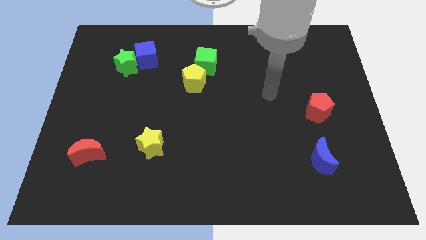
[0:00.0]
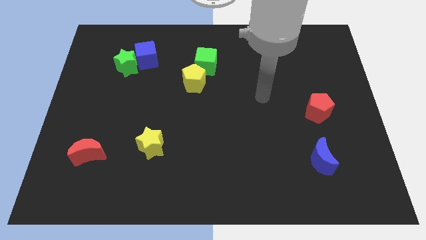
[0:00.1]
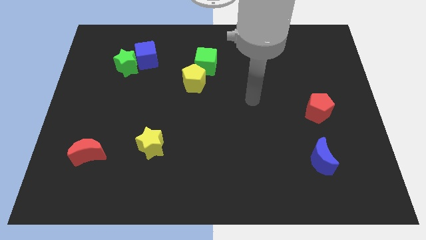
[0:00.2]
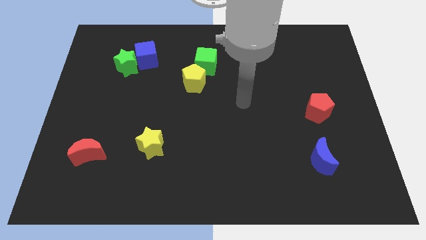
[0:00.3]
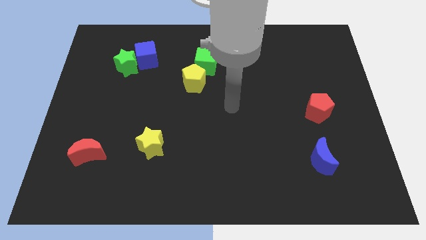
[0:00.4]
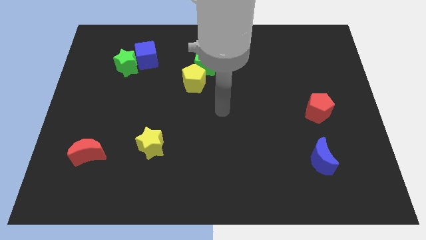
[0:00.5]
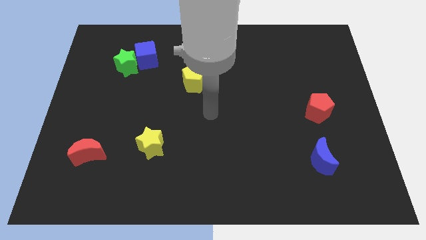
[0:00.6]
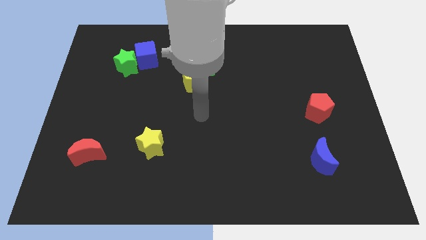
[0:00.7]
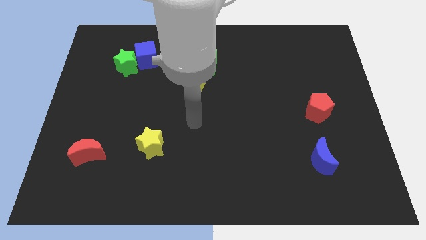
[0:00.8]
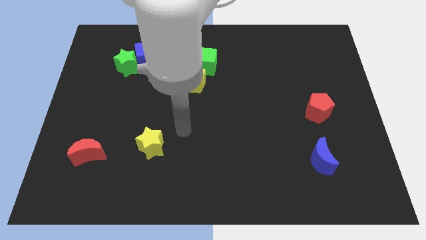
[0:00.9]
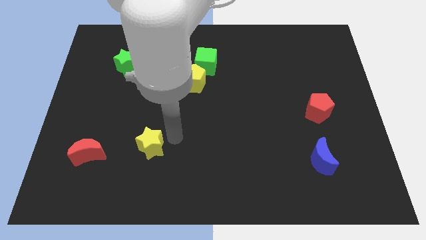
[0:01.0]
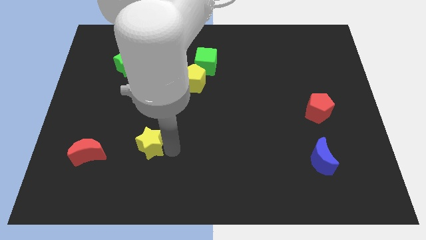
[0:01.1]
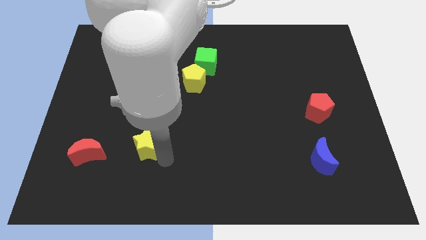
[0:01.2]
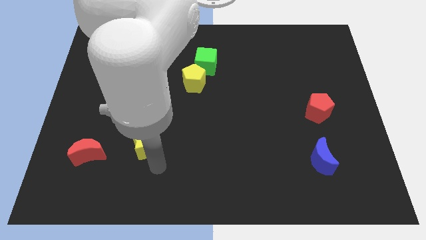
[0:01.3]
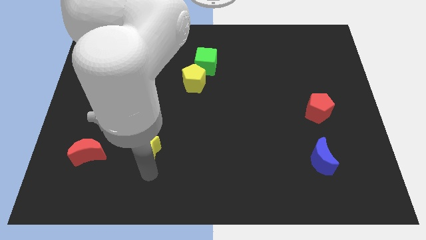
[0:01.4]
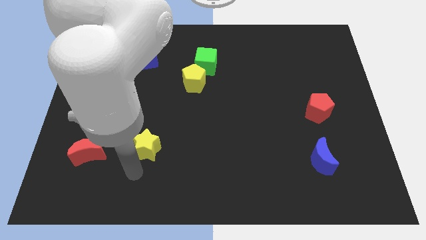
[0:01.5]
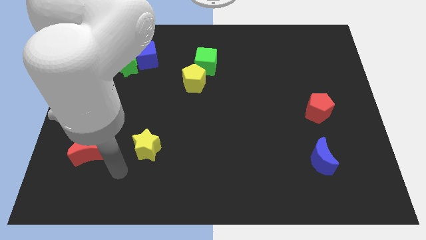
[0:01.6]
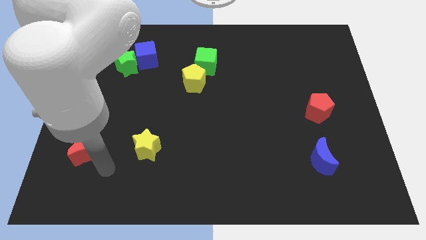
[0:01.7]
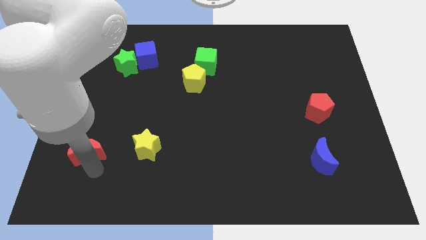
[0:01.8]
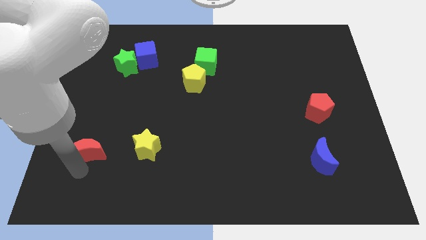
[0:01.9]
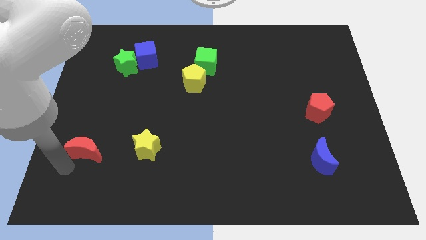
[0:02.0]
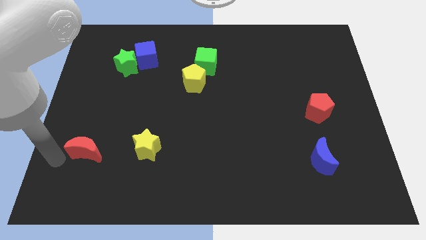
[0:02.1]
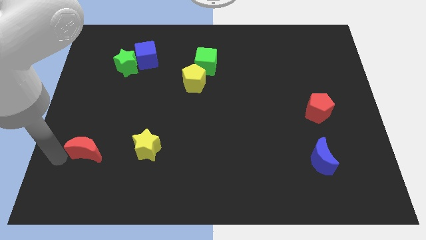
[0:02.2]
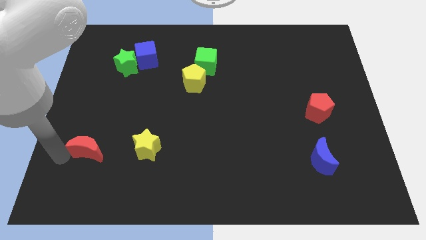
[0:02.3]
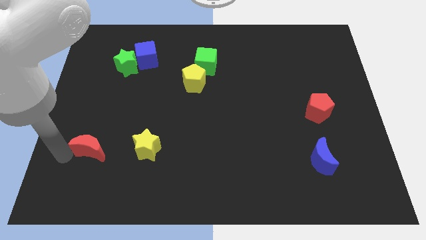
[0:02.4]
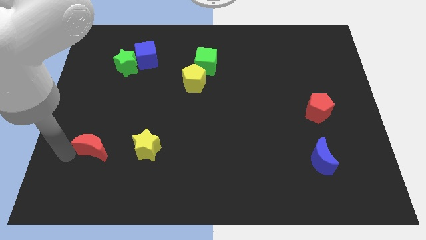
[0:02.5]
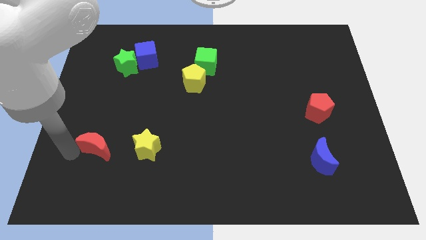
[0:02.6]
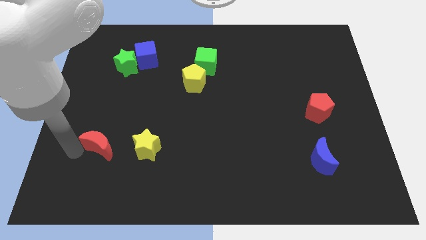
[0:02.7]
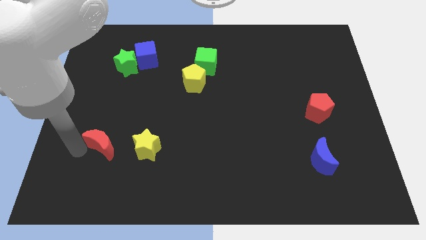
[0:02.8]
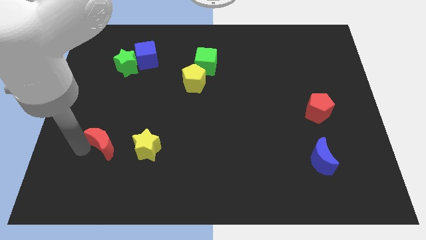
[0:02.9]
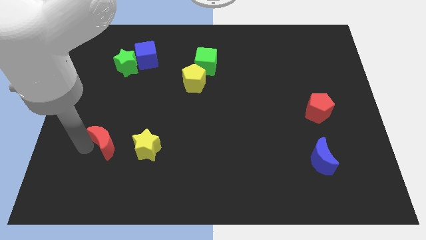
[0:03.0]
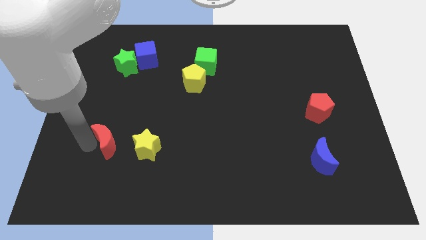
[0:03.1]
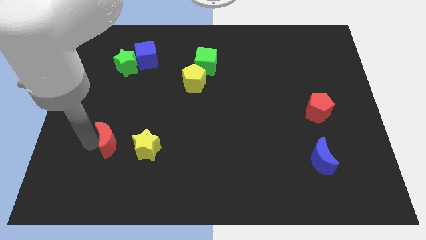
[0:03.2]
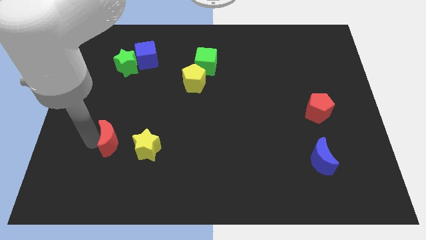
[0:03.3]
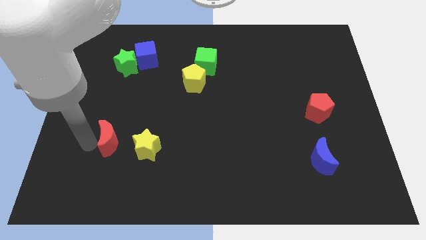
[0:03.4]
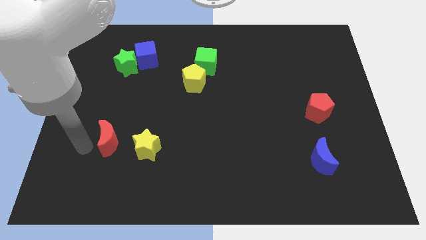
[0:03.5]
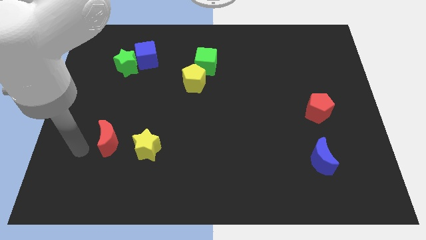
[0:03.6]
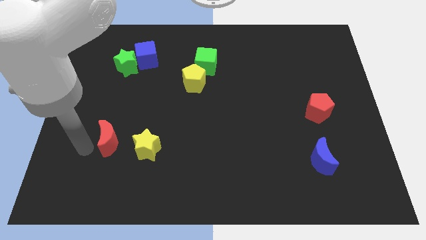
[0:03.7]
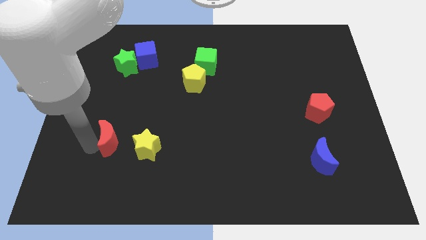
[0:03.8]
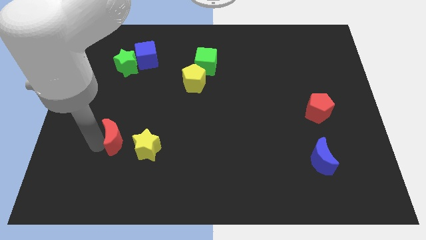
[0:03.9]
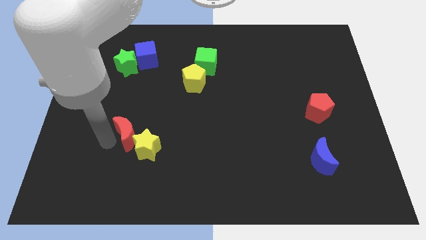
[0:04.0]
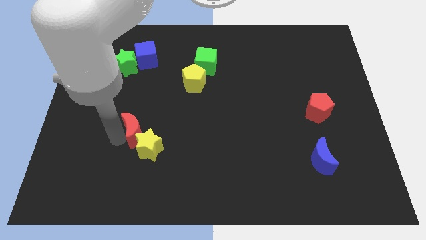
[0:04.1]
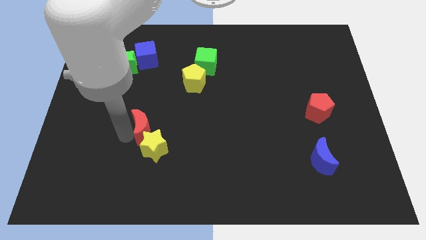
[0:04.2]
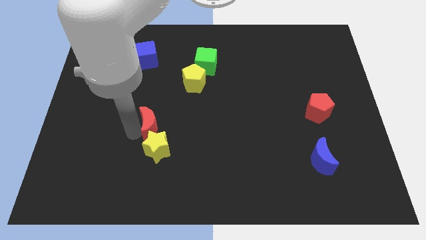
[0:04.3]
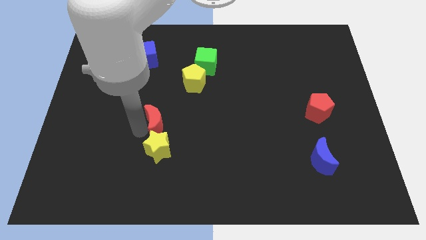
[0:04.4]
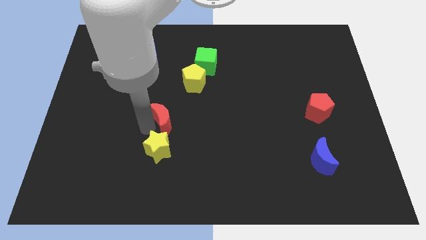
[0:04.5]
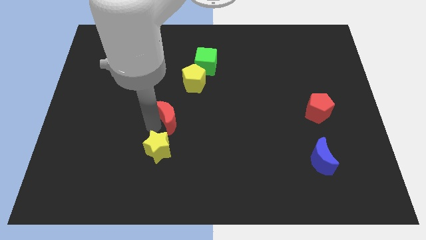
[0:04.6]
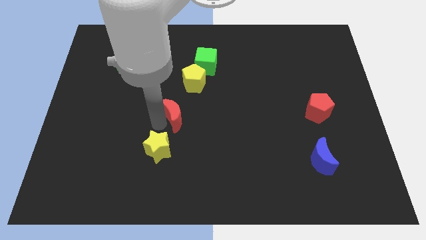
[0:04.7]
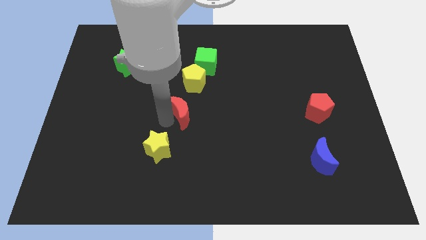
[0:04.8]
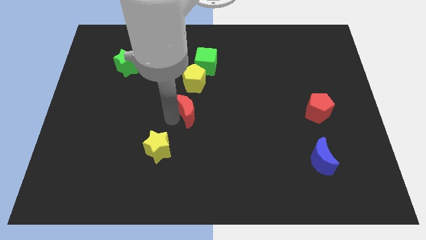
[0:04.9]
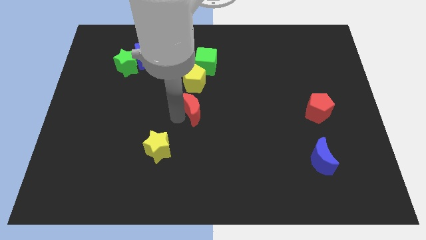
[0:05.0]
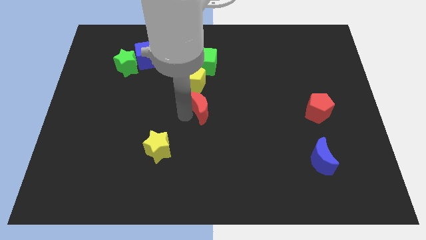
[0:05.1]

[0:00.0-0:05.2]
move the red moon to the bottom right side of the yellow pentagon

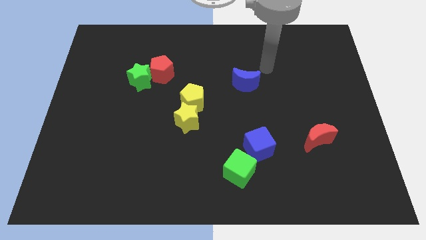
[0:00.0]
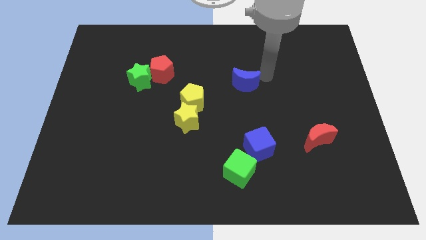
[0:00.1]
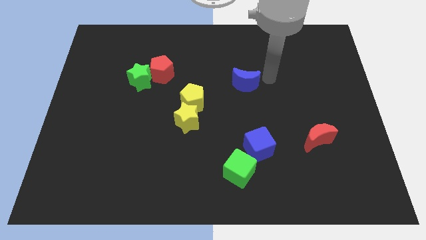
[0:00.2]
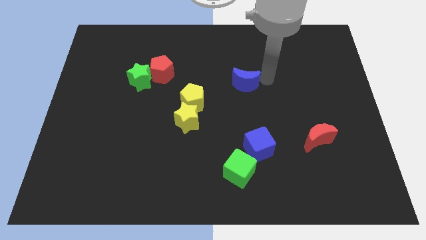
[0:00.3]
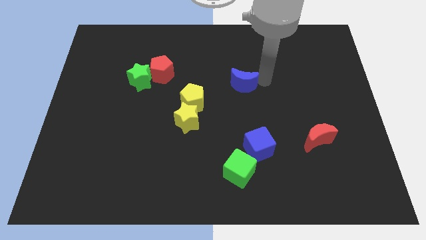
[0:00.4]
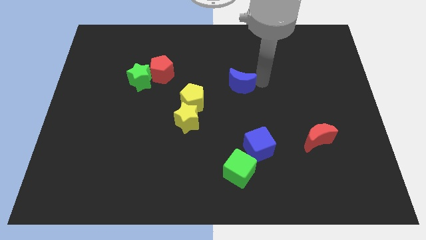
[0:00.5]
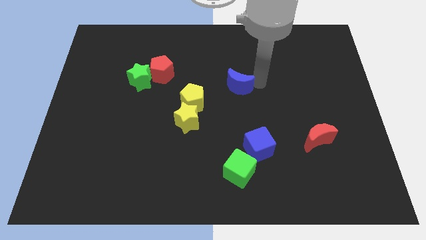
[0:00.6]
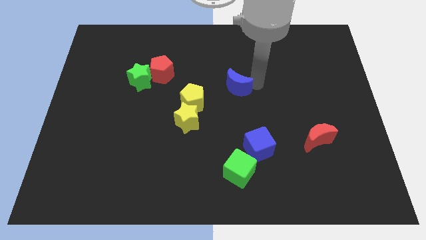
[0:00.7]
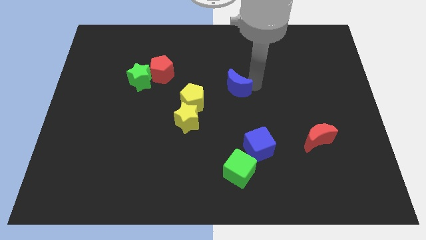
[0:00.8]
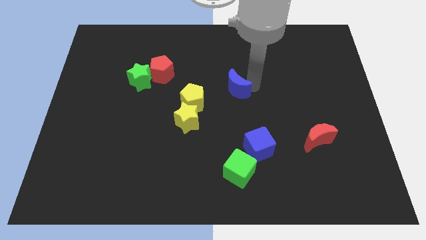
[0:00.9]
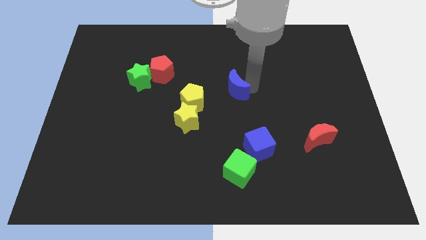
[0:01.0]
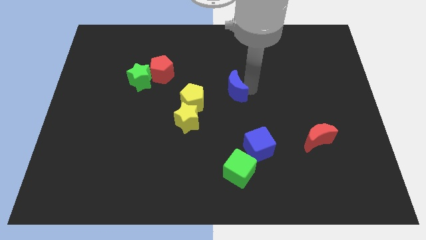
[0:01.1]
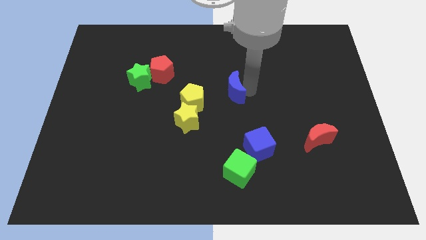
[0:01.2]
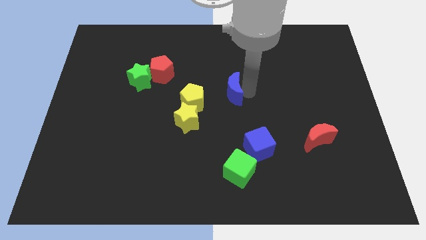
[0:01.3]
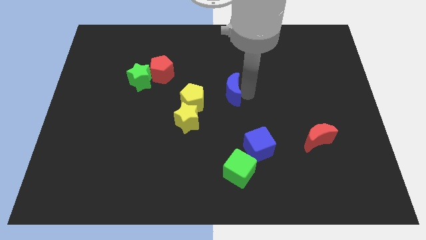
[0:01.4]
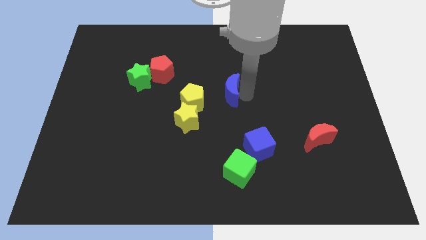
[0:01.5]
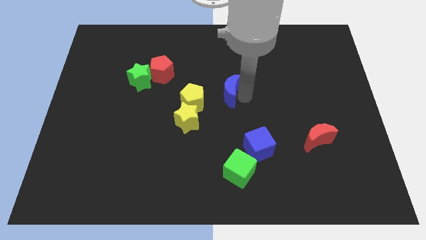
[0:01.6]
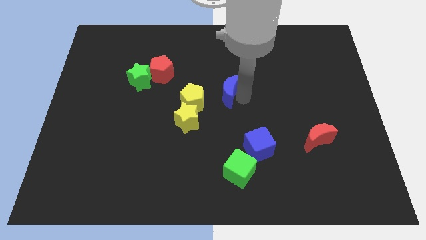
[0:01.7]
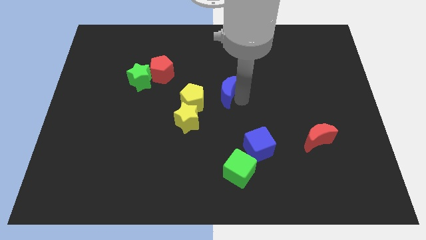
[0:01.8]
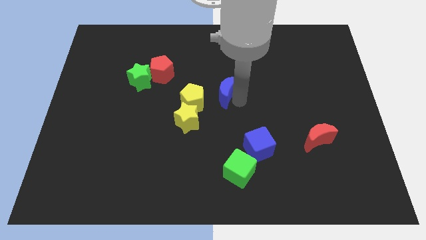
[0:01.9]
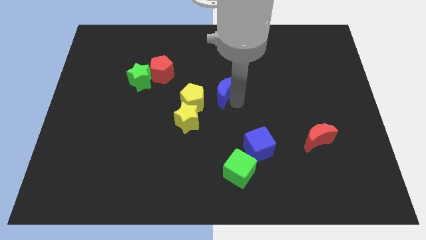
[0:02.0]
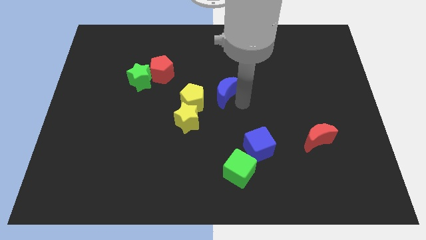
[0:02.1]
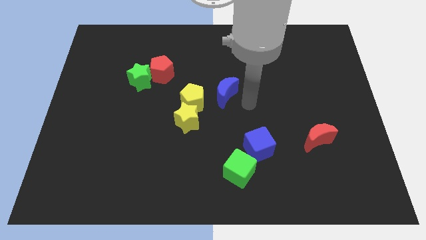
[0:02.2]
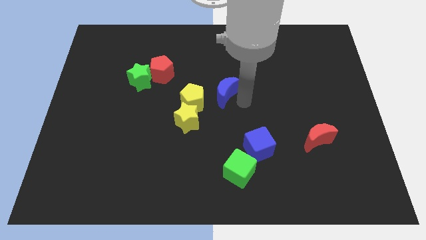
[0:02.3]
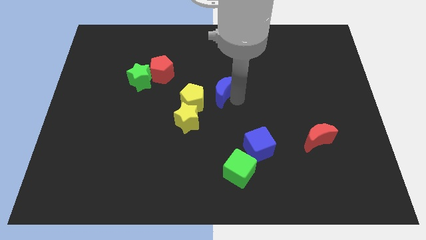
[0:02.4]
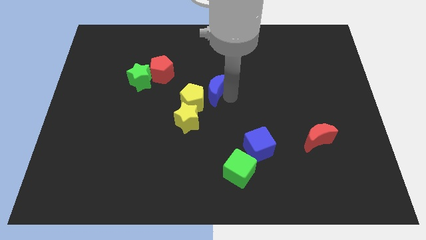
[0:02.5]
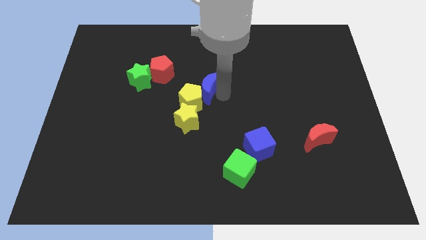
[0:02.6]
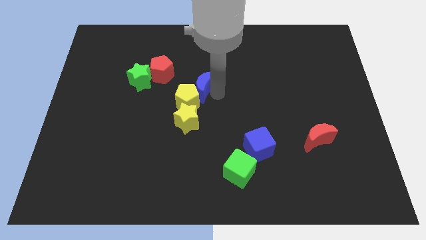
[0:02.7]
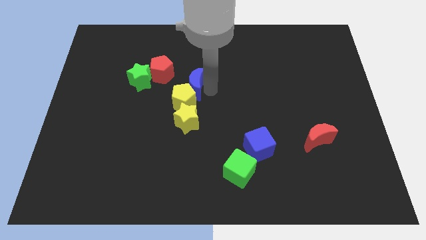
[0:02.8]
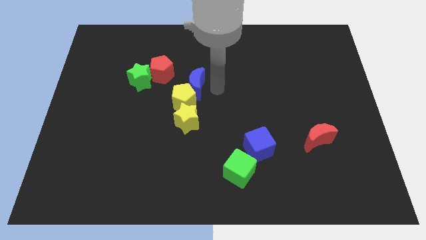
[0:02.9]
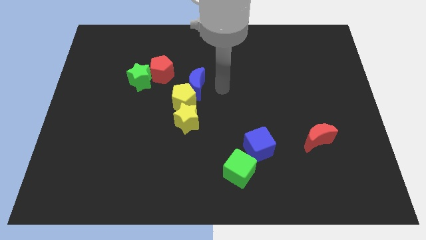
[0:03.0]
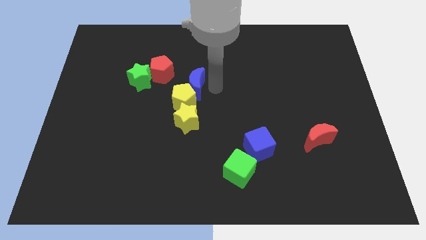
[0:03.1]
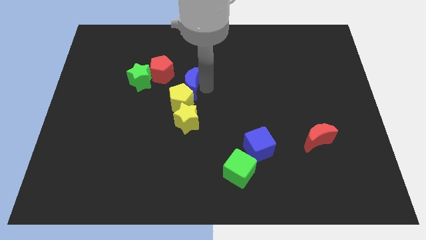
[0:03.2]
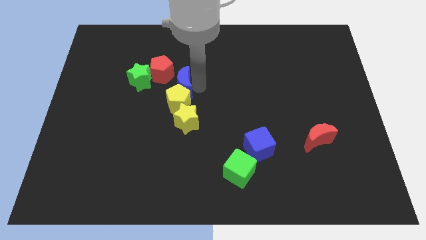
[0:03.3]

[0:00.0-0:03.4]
slide the blue moon diagonally up and to the left of the yellow pentagon
